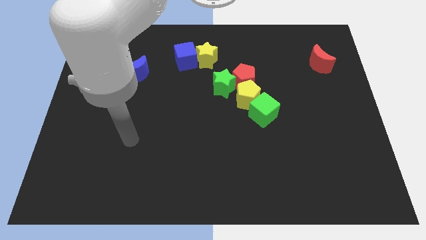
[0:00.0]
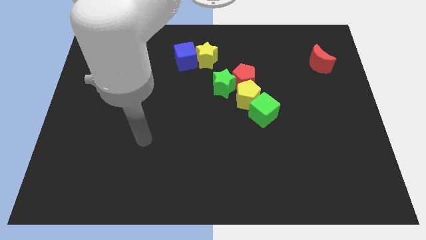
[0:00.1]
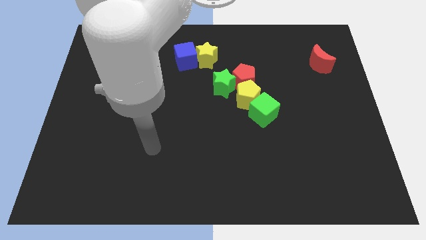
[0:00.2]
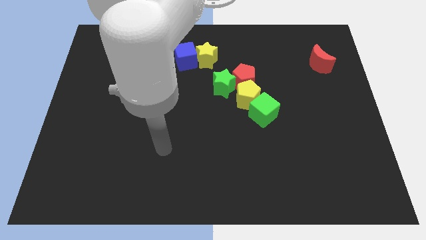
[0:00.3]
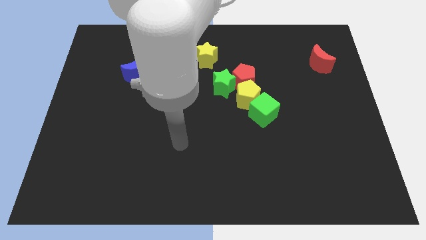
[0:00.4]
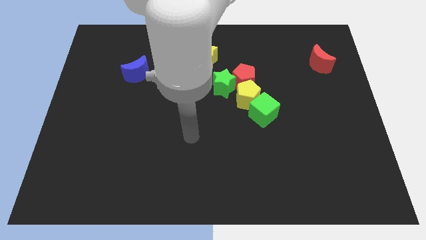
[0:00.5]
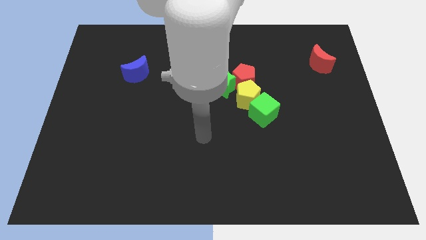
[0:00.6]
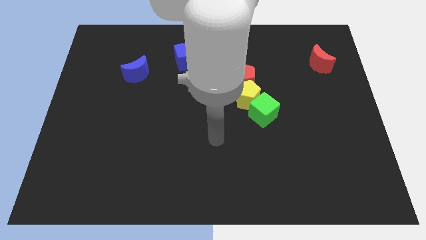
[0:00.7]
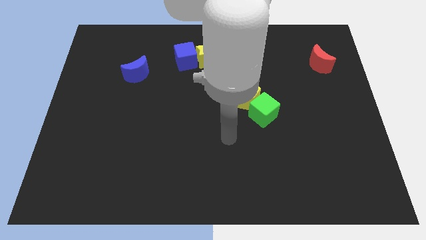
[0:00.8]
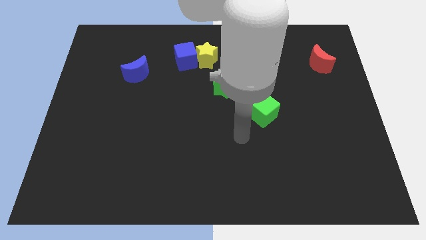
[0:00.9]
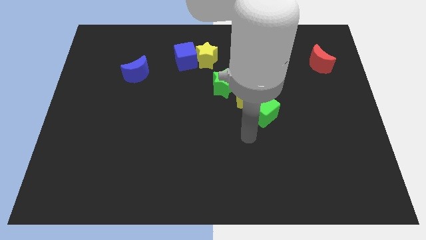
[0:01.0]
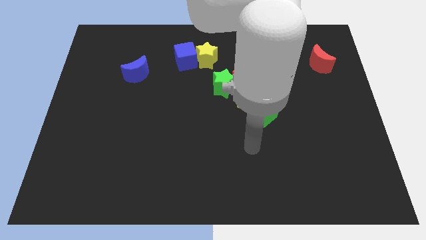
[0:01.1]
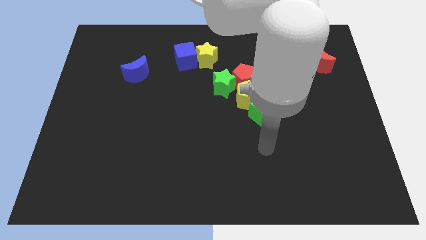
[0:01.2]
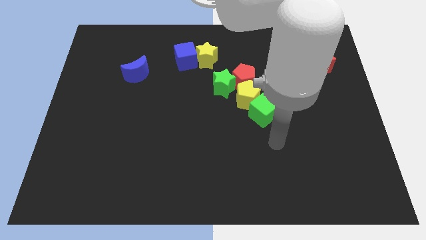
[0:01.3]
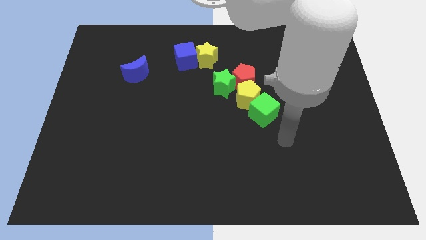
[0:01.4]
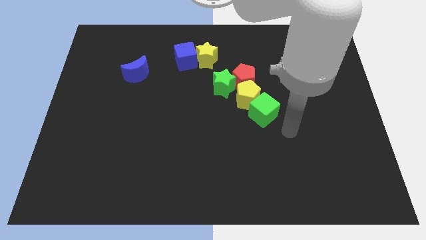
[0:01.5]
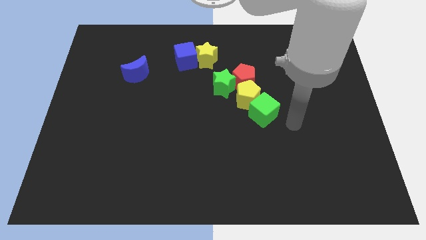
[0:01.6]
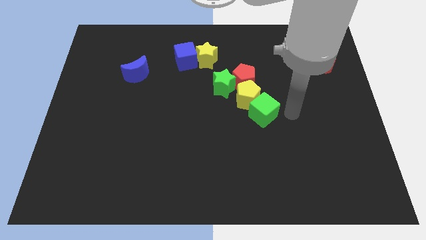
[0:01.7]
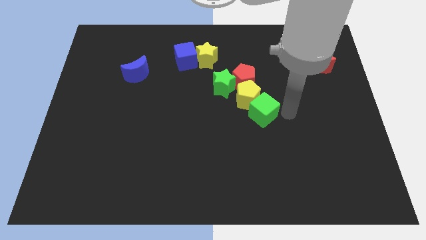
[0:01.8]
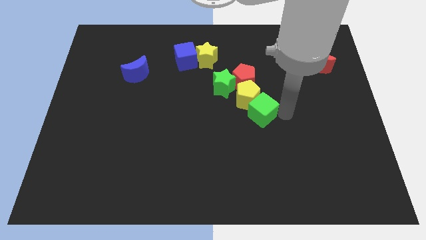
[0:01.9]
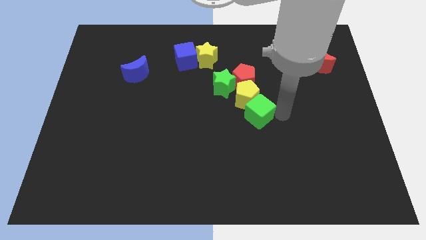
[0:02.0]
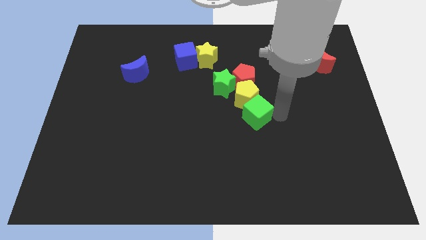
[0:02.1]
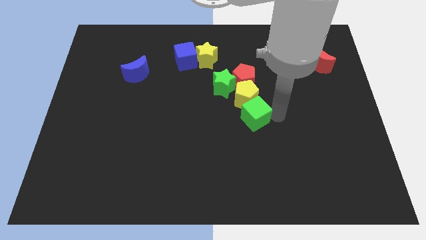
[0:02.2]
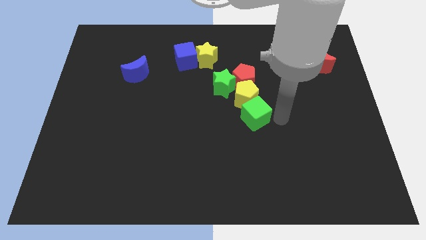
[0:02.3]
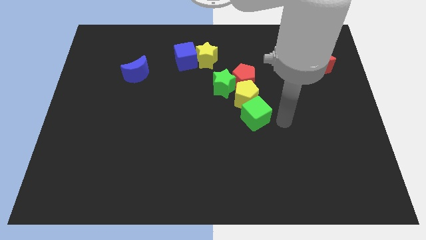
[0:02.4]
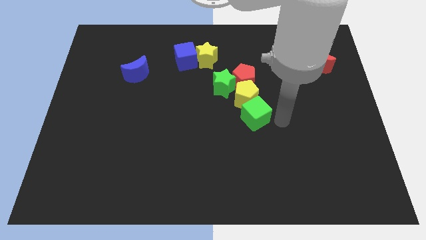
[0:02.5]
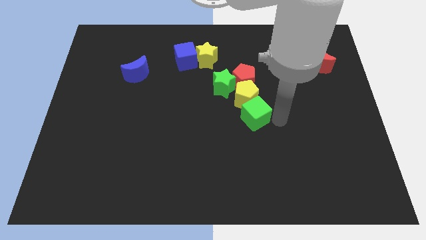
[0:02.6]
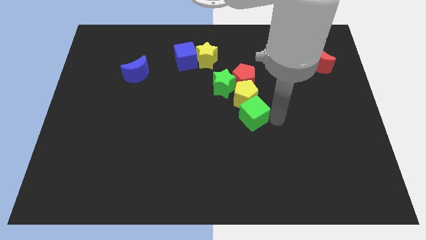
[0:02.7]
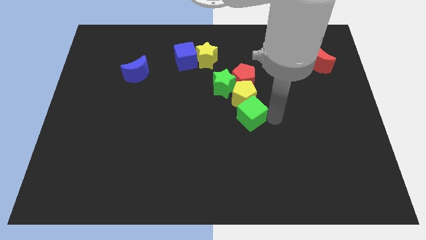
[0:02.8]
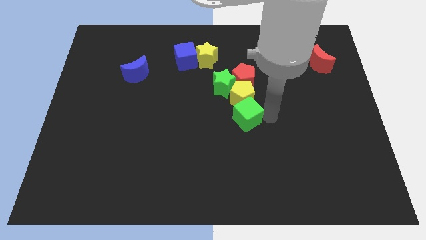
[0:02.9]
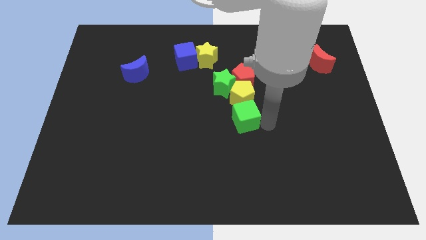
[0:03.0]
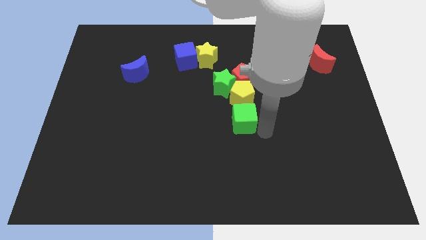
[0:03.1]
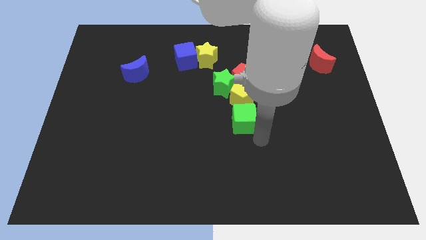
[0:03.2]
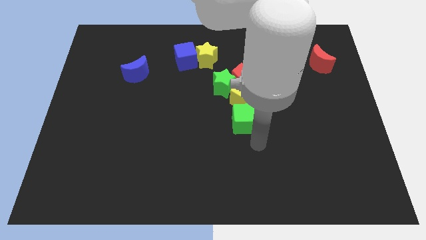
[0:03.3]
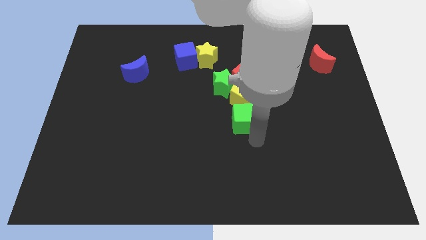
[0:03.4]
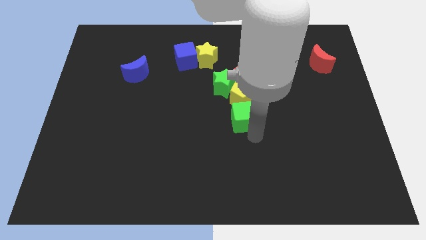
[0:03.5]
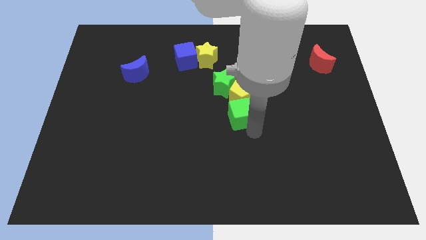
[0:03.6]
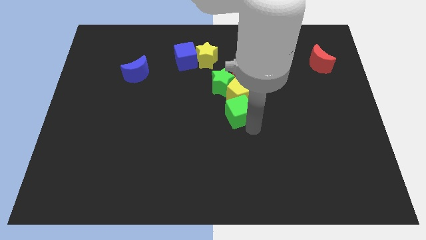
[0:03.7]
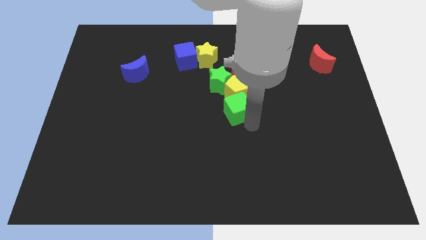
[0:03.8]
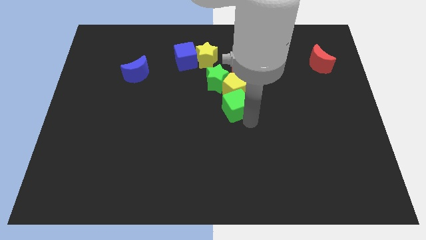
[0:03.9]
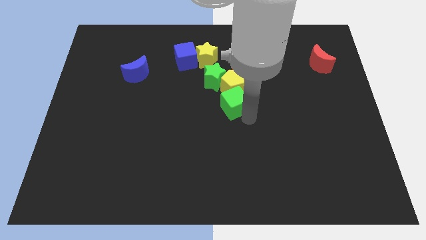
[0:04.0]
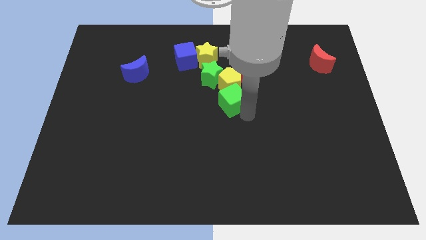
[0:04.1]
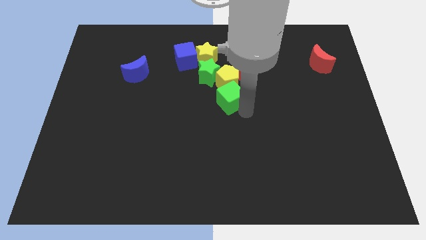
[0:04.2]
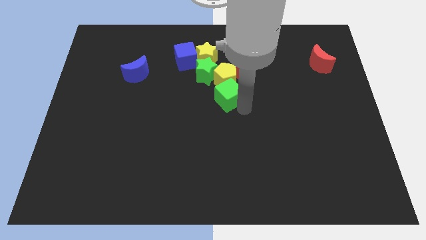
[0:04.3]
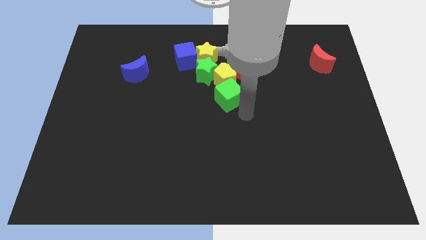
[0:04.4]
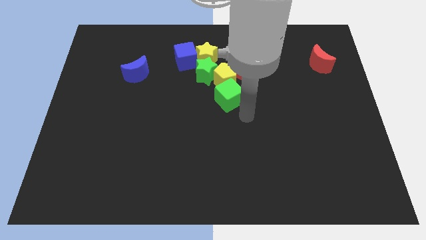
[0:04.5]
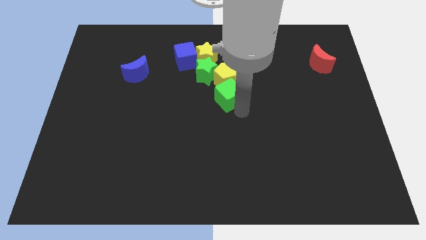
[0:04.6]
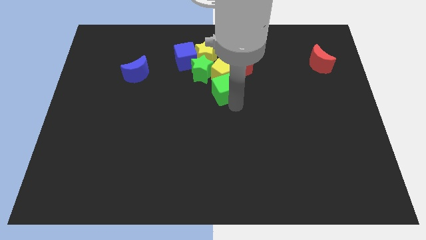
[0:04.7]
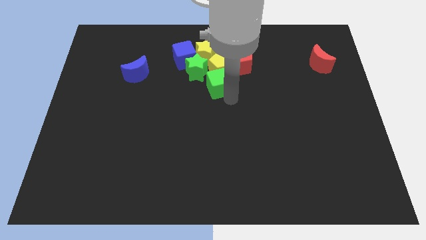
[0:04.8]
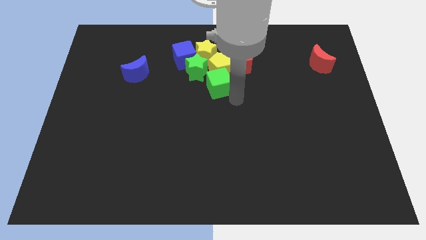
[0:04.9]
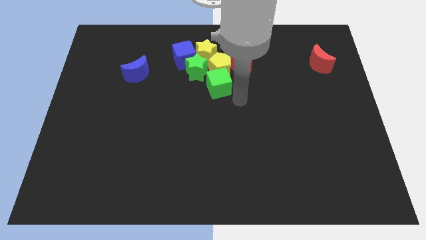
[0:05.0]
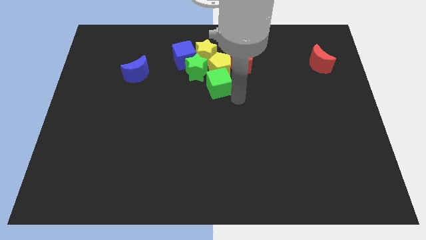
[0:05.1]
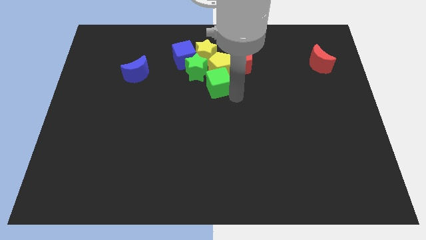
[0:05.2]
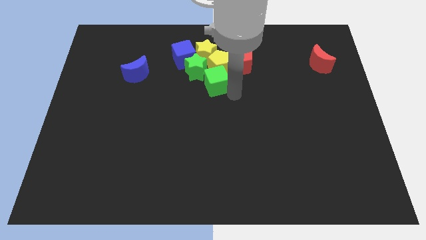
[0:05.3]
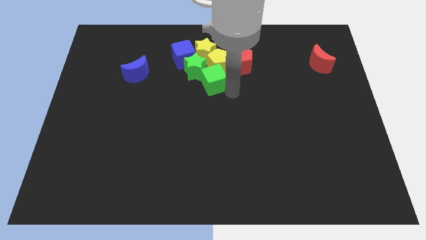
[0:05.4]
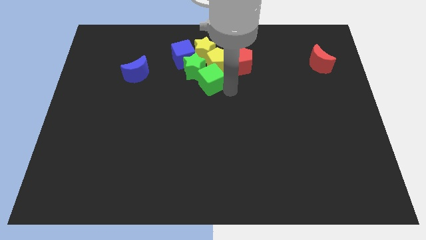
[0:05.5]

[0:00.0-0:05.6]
put the green cube towards the green star

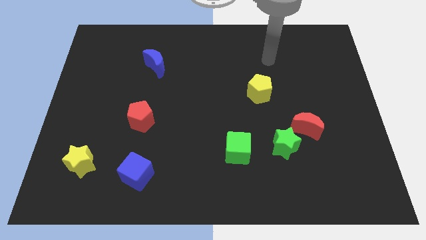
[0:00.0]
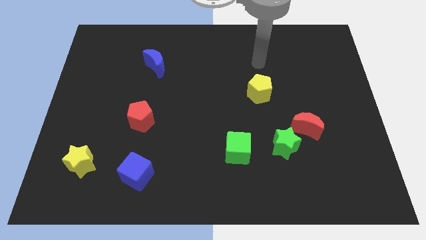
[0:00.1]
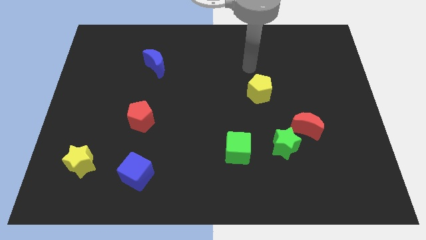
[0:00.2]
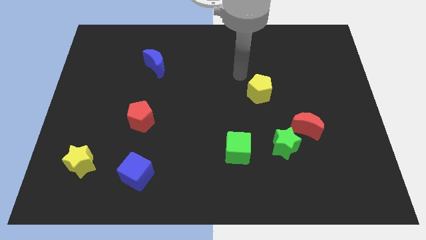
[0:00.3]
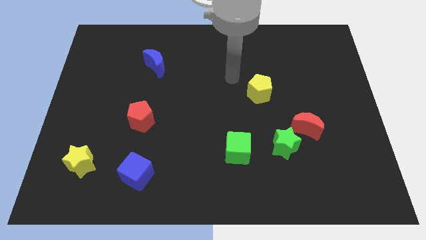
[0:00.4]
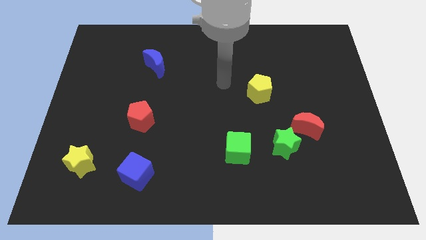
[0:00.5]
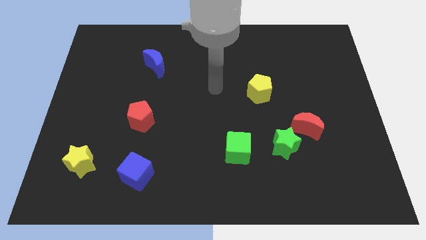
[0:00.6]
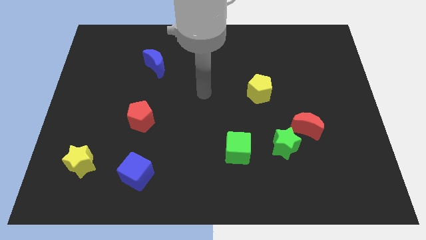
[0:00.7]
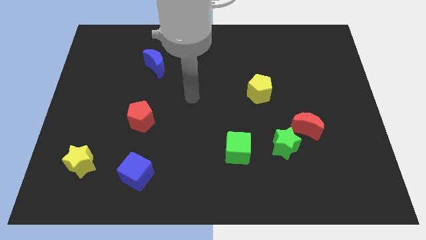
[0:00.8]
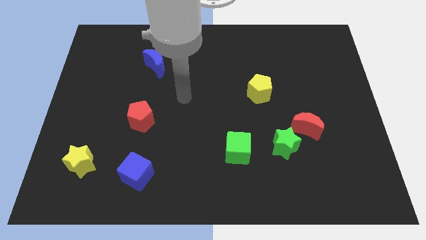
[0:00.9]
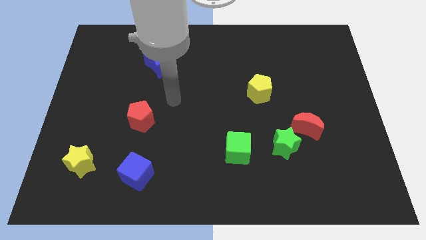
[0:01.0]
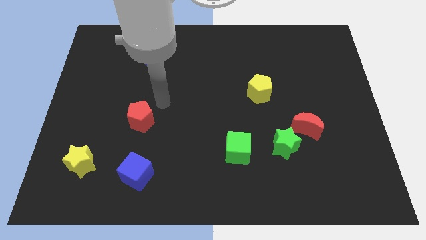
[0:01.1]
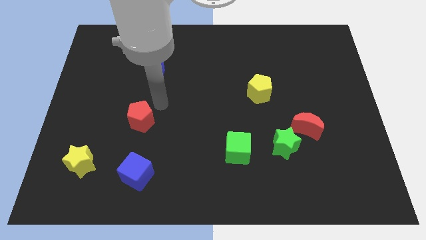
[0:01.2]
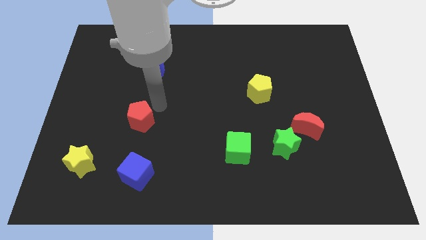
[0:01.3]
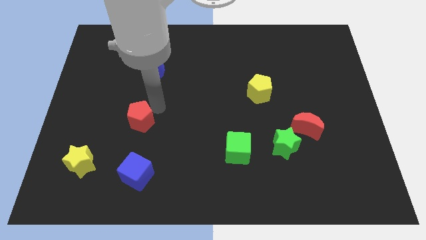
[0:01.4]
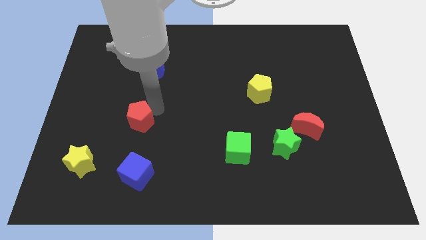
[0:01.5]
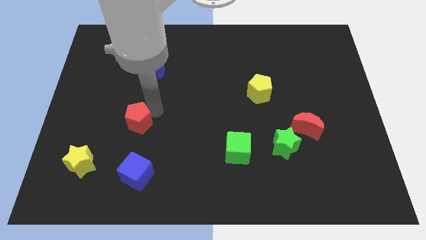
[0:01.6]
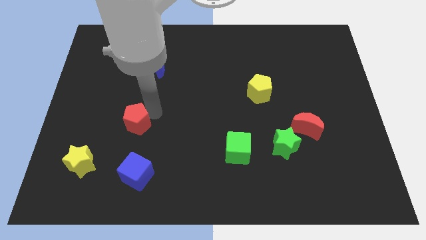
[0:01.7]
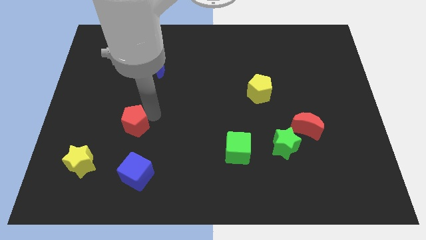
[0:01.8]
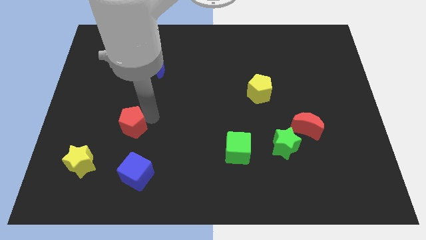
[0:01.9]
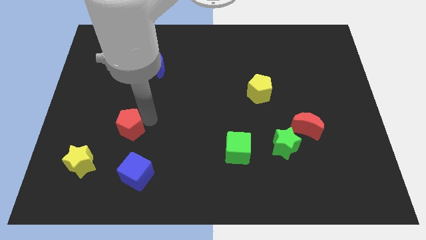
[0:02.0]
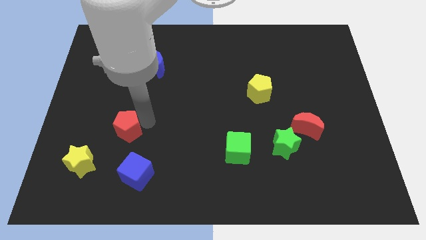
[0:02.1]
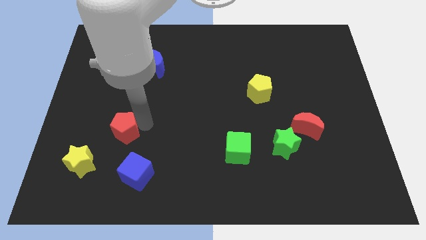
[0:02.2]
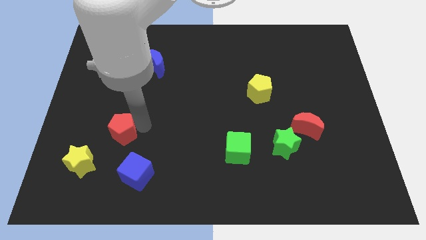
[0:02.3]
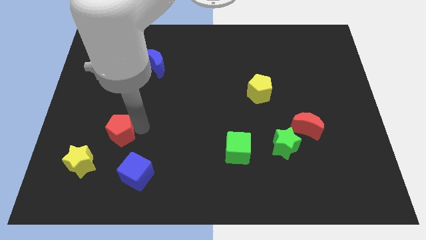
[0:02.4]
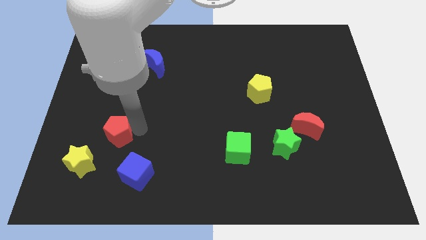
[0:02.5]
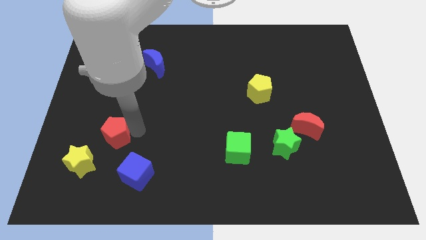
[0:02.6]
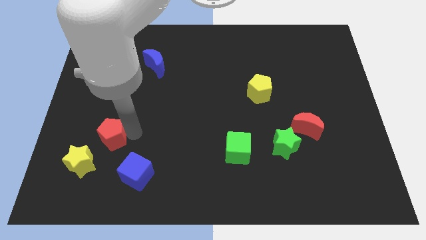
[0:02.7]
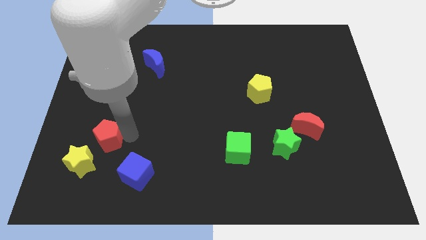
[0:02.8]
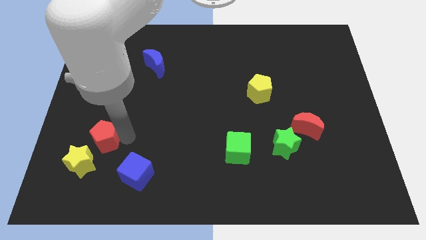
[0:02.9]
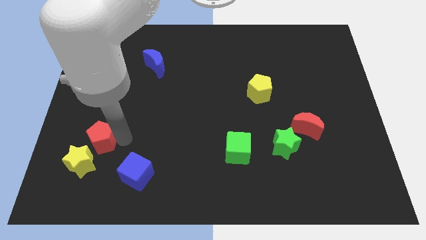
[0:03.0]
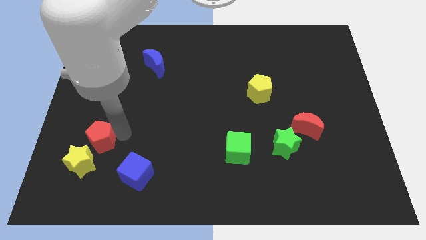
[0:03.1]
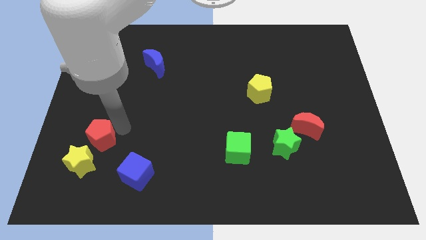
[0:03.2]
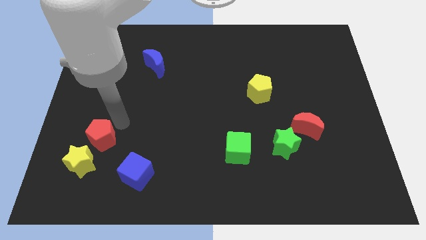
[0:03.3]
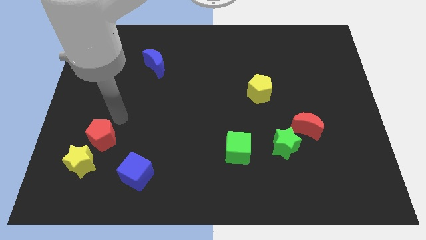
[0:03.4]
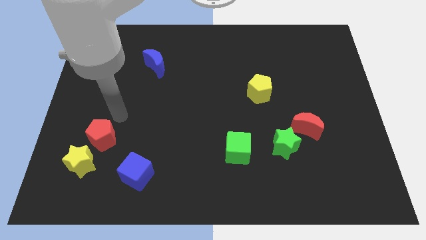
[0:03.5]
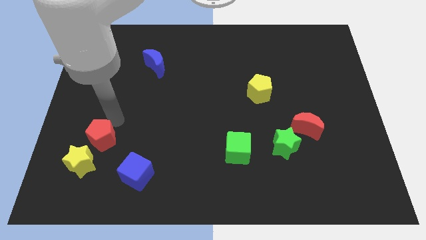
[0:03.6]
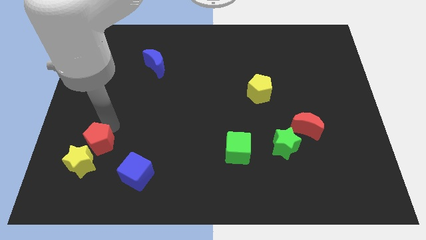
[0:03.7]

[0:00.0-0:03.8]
put the red pentagon to the yellow star
